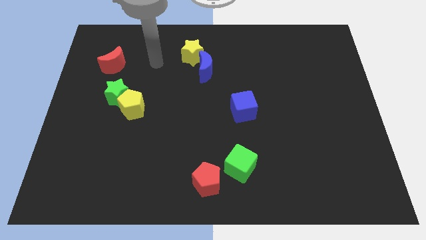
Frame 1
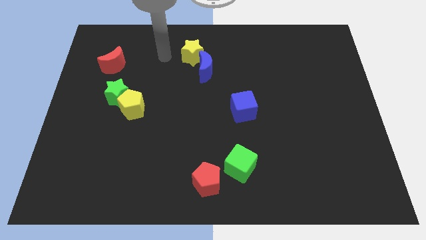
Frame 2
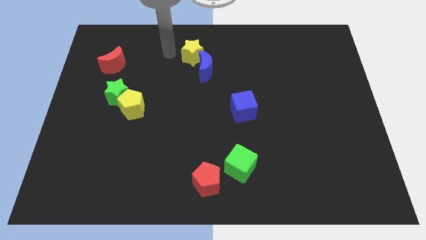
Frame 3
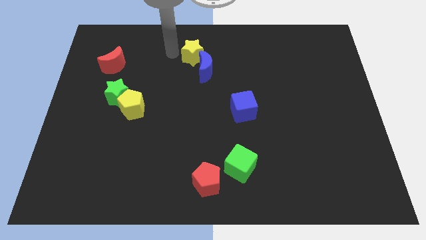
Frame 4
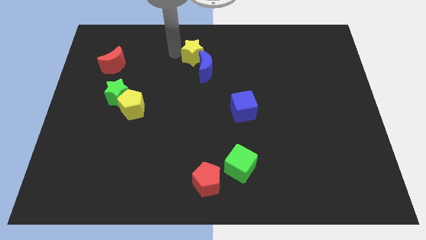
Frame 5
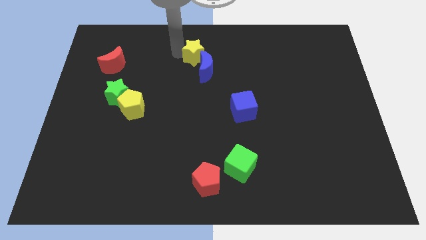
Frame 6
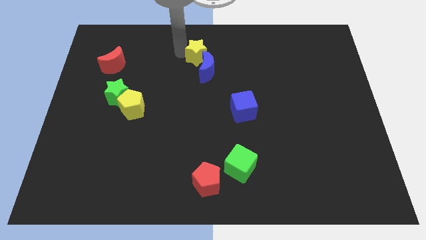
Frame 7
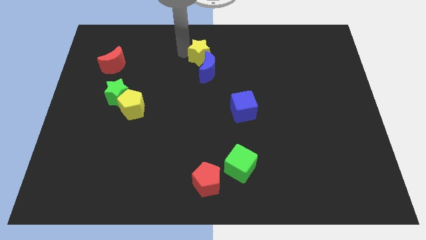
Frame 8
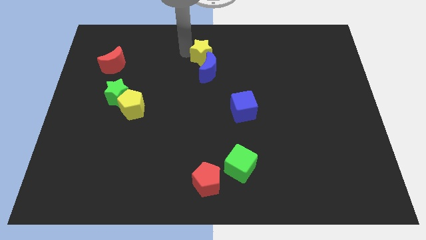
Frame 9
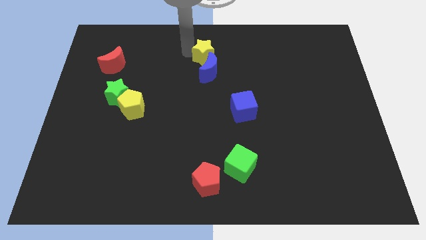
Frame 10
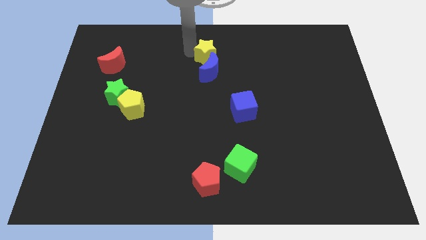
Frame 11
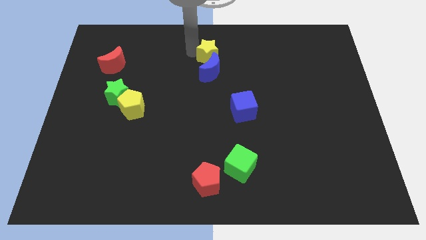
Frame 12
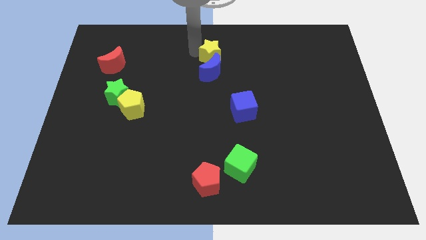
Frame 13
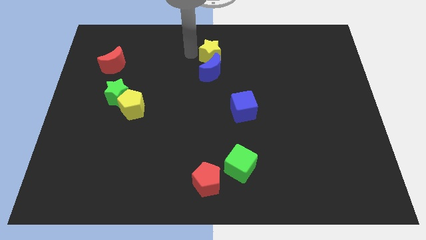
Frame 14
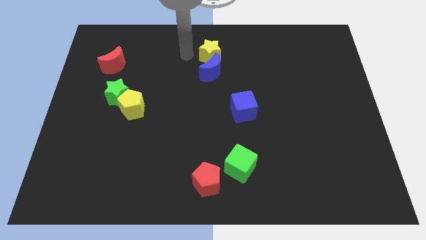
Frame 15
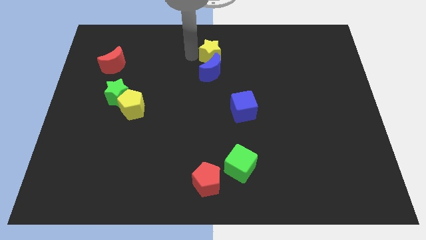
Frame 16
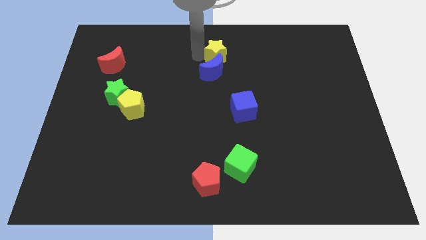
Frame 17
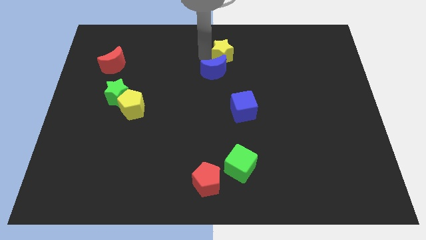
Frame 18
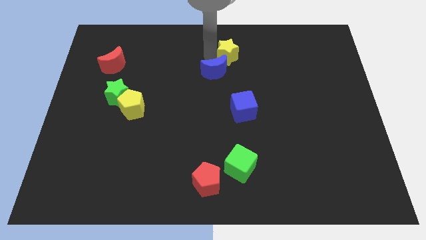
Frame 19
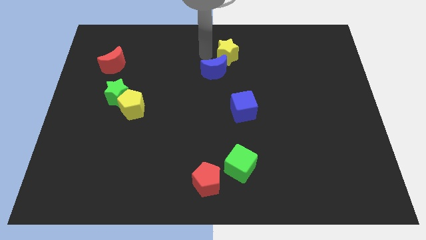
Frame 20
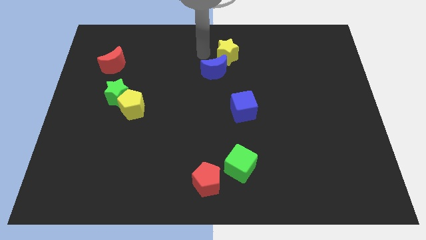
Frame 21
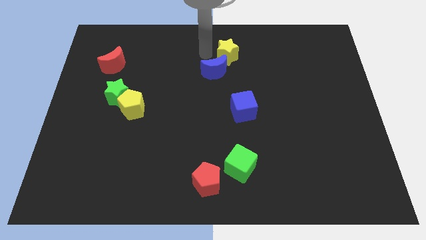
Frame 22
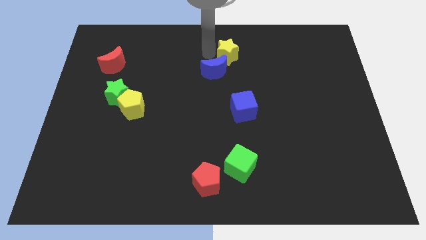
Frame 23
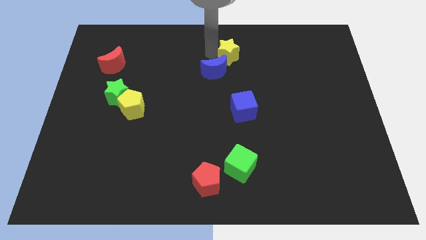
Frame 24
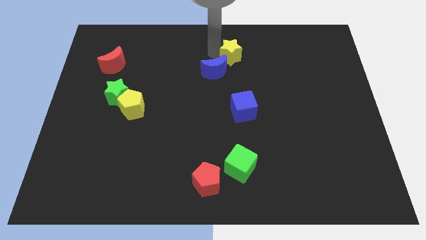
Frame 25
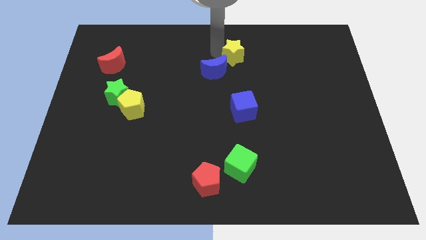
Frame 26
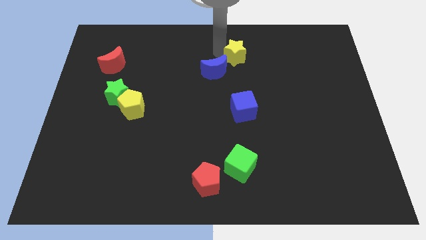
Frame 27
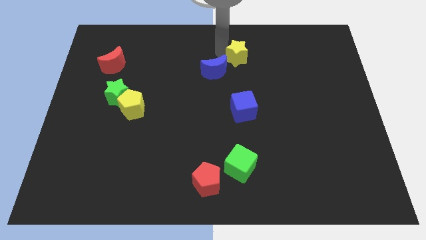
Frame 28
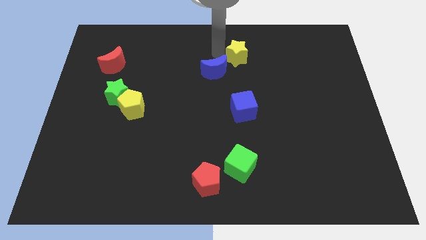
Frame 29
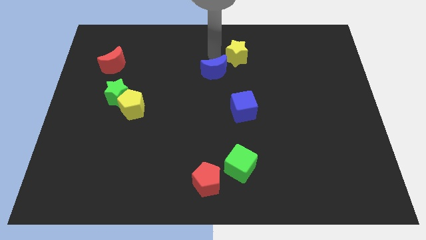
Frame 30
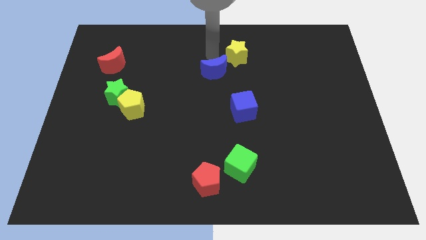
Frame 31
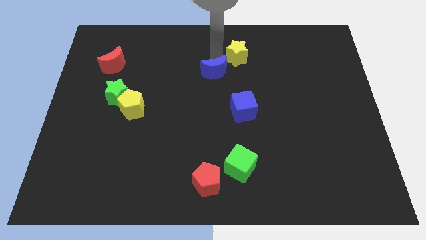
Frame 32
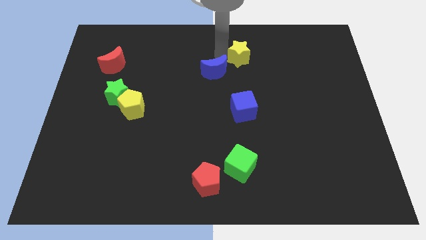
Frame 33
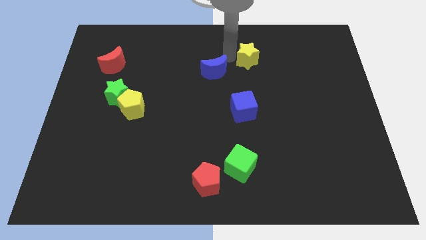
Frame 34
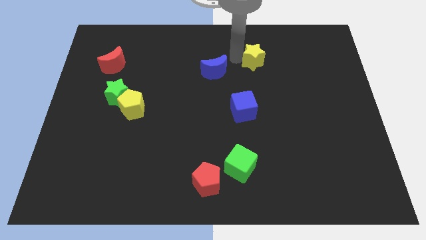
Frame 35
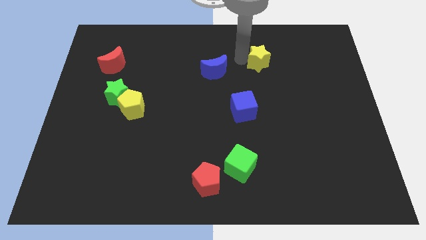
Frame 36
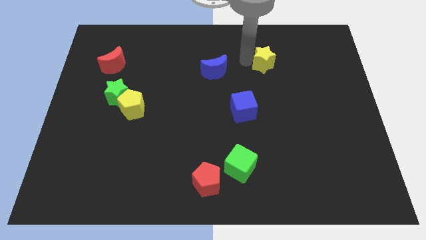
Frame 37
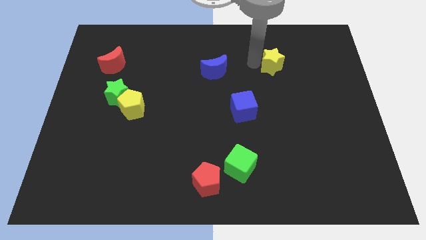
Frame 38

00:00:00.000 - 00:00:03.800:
slide the yellow star to the right

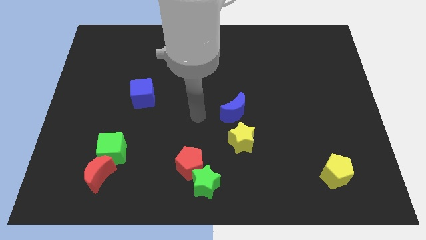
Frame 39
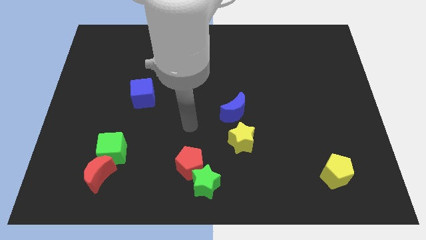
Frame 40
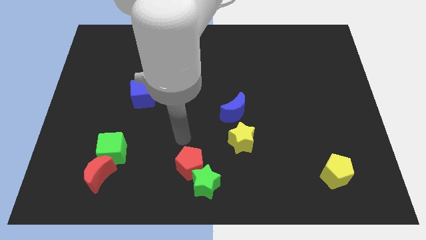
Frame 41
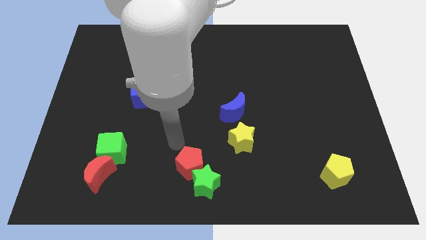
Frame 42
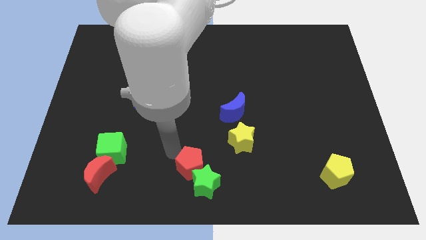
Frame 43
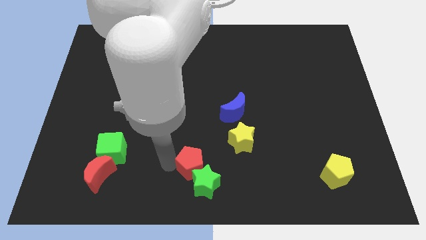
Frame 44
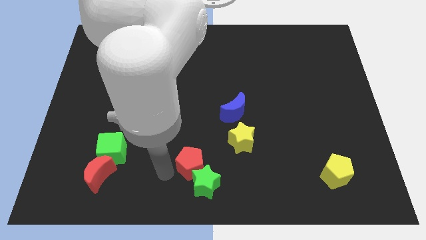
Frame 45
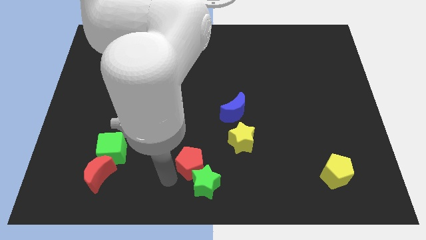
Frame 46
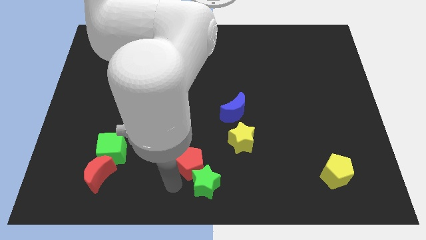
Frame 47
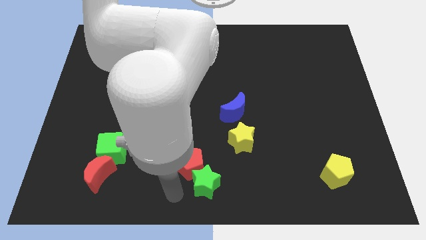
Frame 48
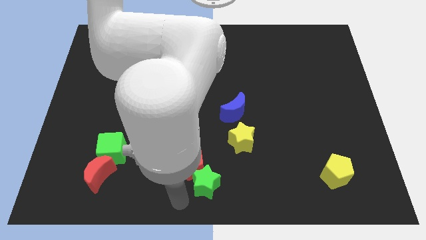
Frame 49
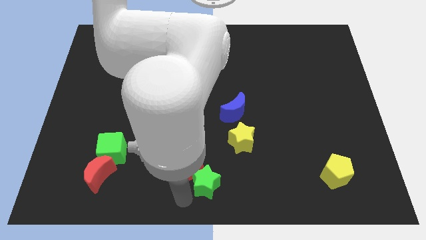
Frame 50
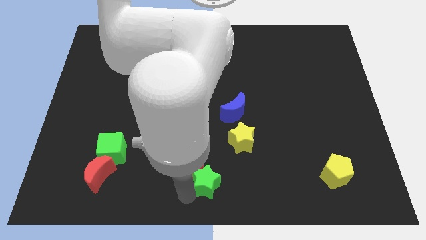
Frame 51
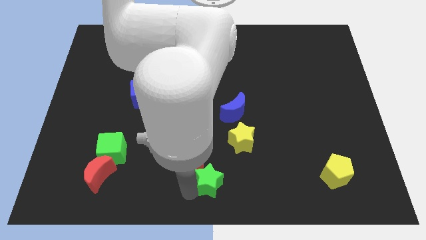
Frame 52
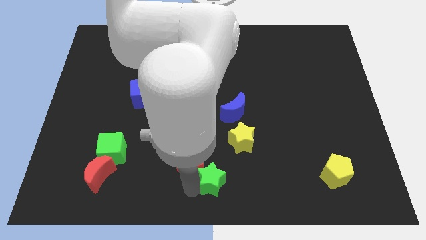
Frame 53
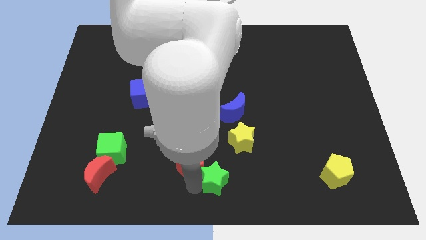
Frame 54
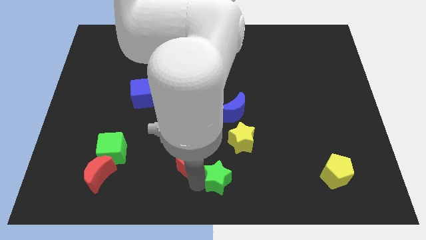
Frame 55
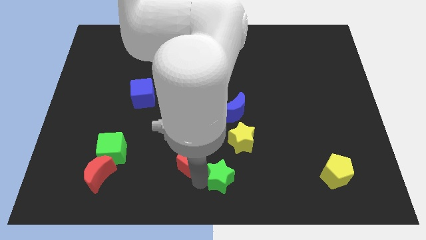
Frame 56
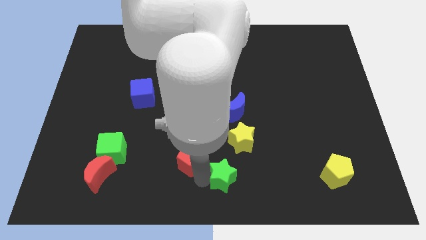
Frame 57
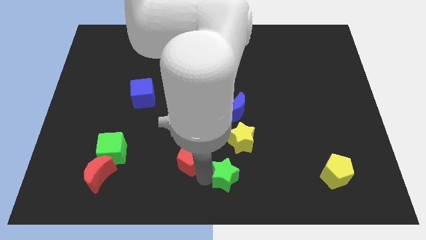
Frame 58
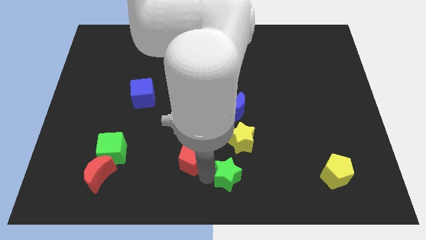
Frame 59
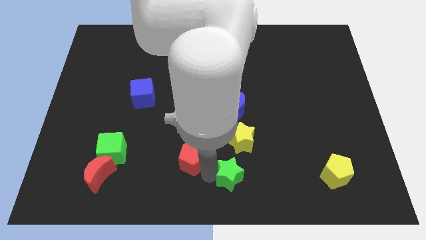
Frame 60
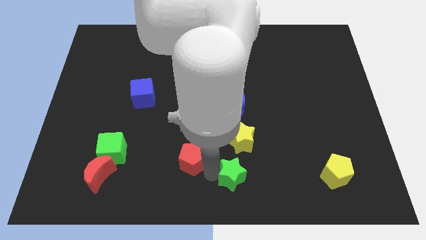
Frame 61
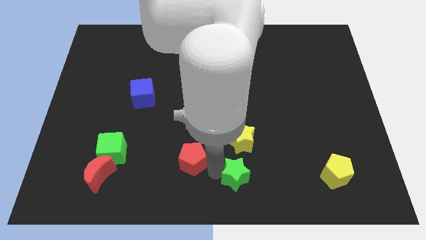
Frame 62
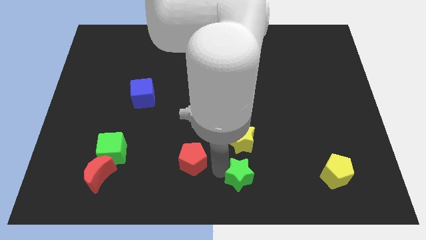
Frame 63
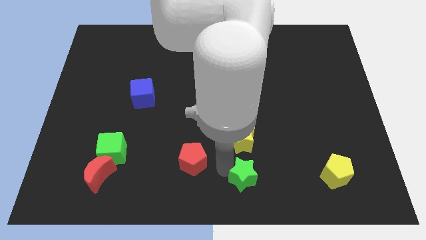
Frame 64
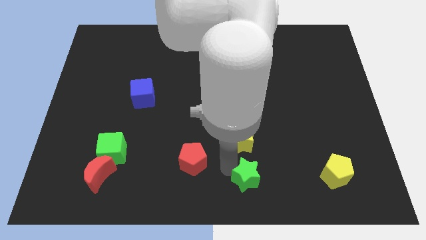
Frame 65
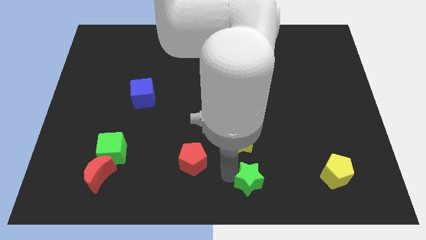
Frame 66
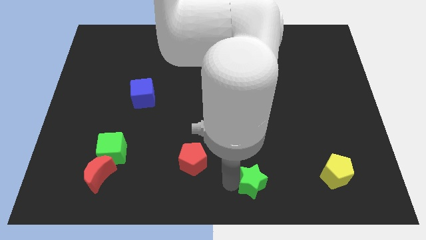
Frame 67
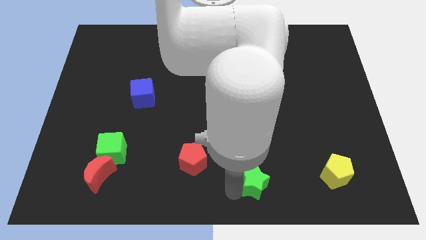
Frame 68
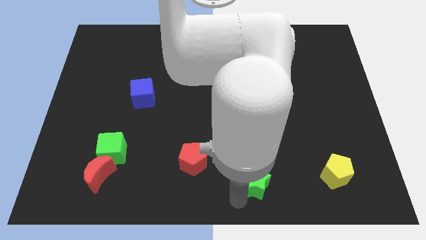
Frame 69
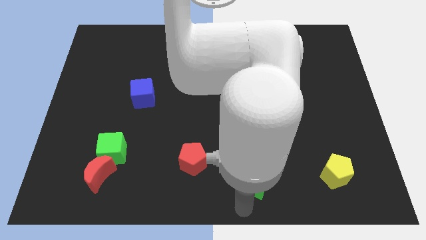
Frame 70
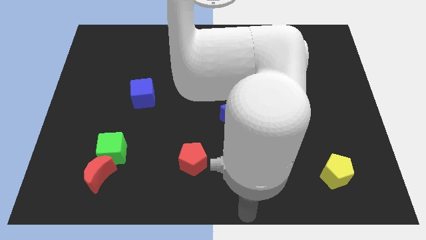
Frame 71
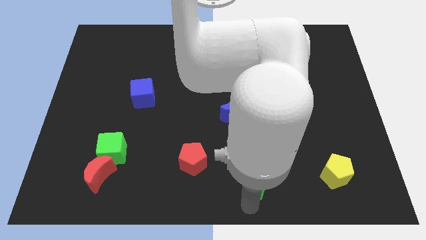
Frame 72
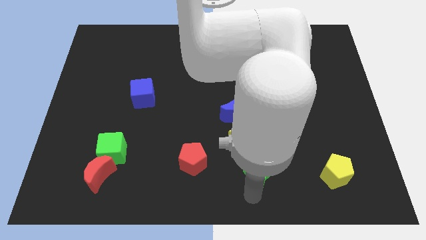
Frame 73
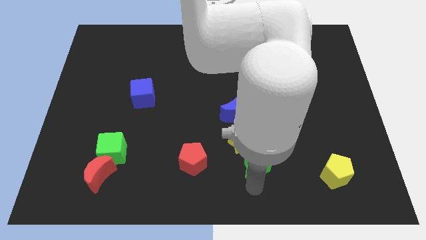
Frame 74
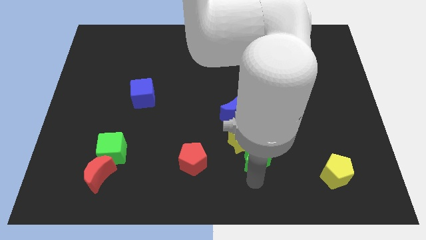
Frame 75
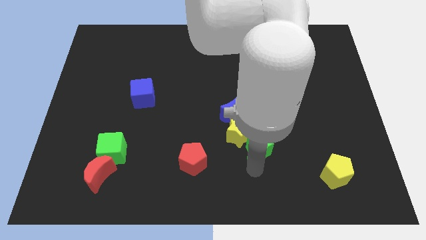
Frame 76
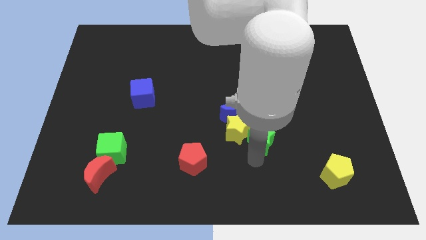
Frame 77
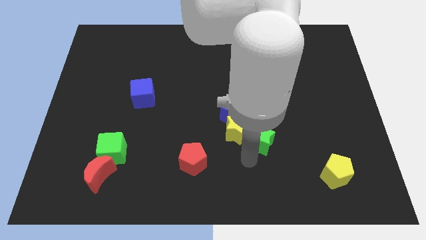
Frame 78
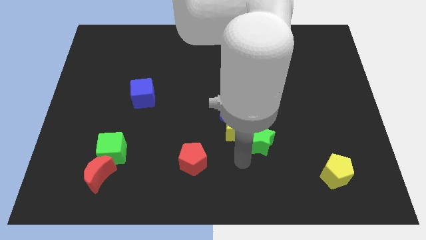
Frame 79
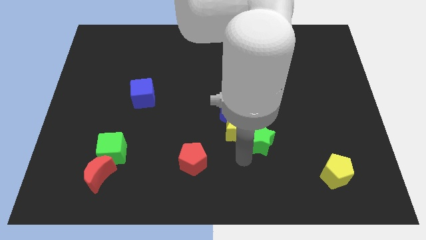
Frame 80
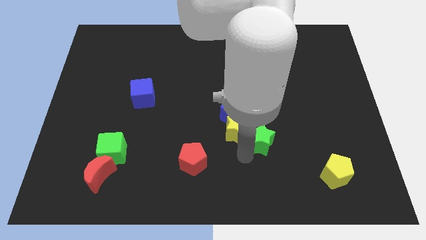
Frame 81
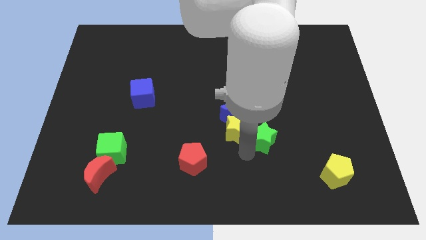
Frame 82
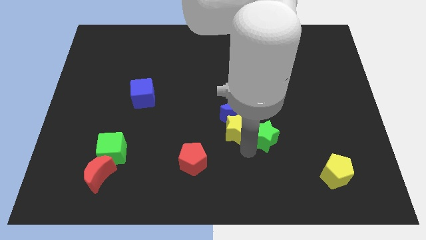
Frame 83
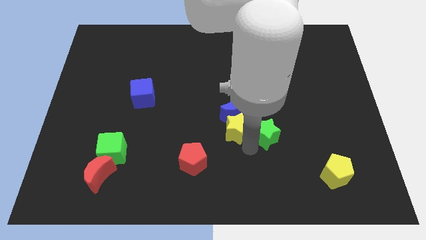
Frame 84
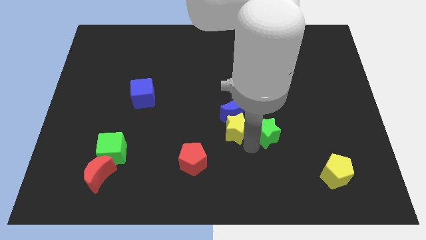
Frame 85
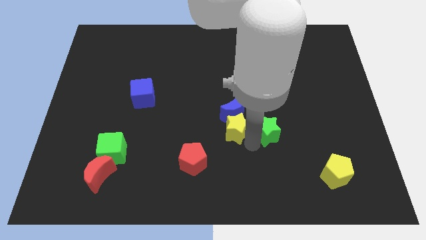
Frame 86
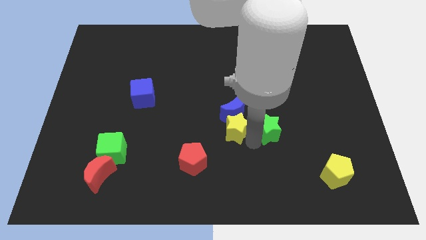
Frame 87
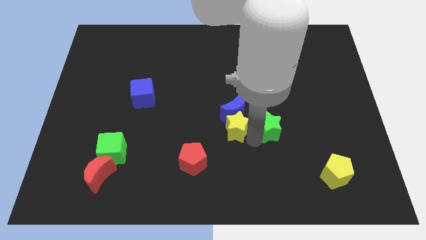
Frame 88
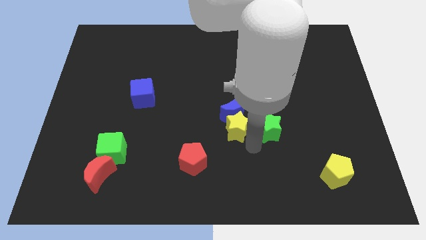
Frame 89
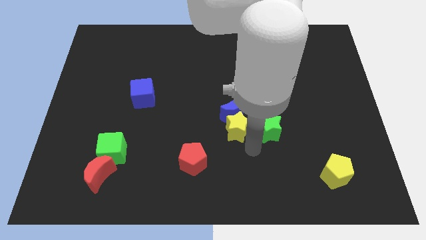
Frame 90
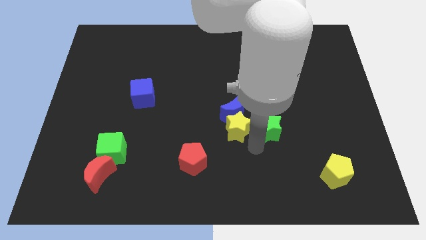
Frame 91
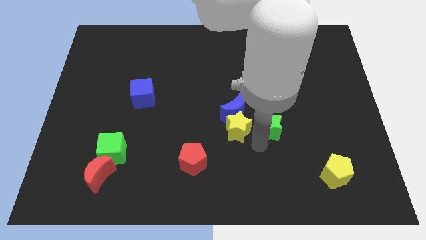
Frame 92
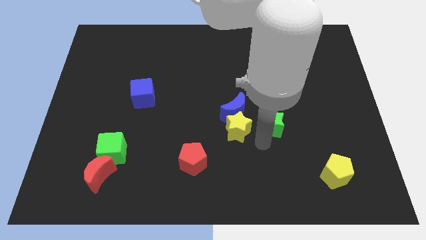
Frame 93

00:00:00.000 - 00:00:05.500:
move the green star upwards and to the right
